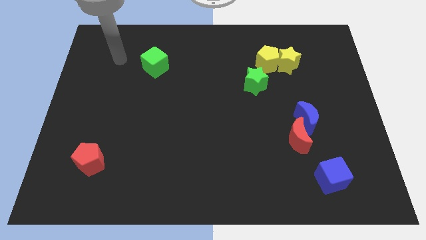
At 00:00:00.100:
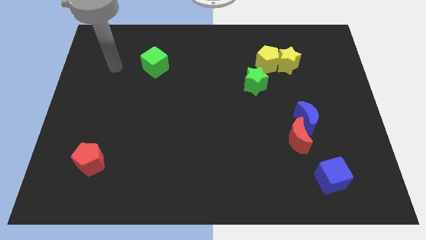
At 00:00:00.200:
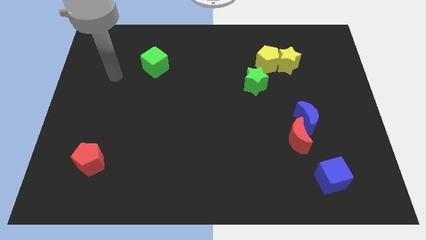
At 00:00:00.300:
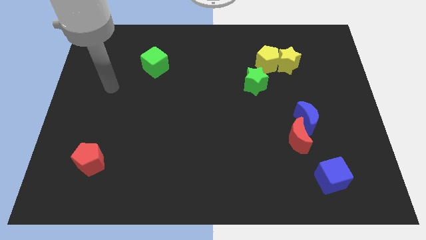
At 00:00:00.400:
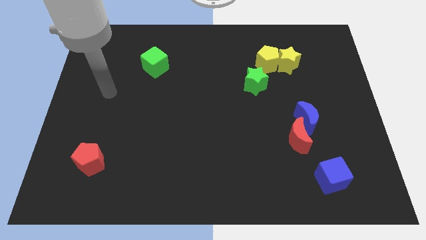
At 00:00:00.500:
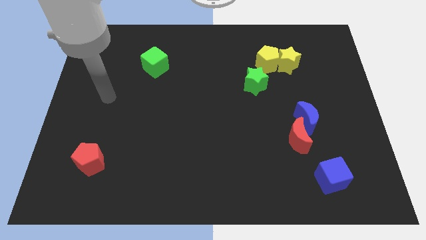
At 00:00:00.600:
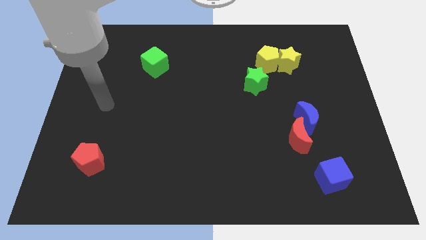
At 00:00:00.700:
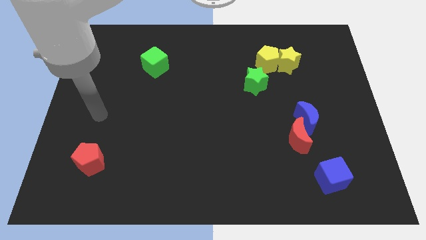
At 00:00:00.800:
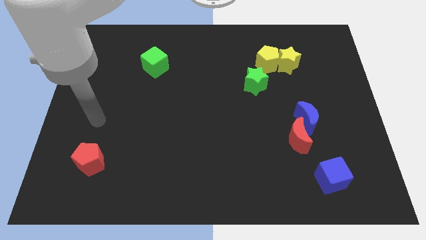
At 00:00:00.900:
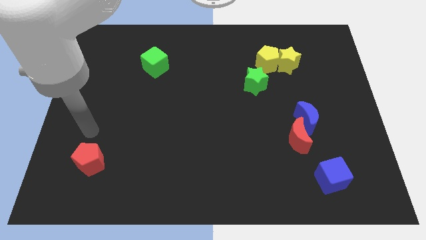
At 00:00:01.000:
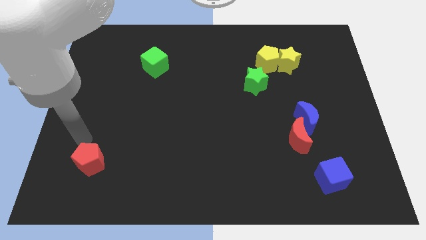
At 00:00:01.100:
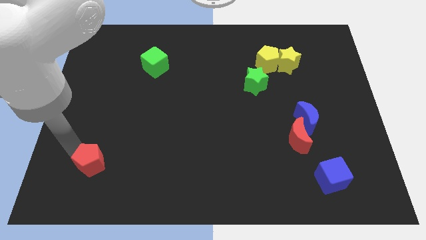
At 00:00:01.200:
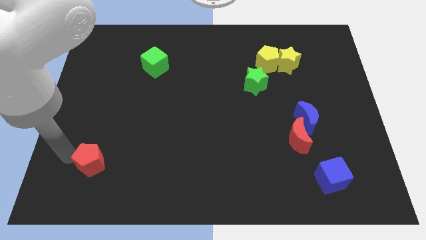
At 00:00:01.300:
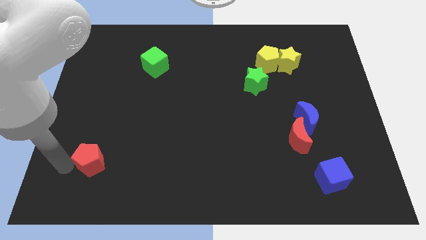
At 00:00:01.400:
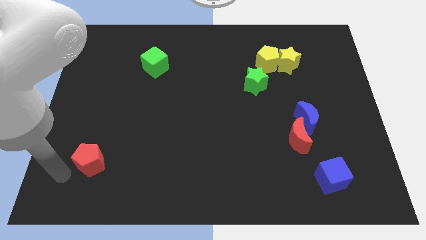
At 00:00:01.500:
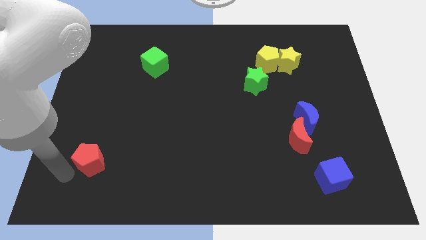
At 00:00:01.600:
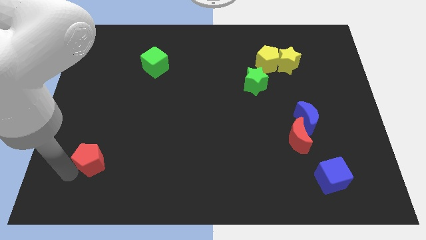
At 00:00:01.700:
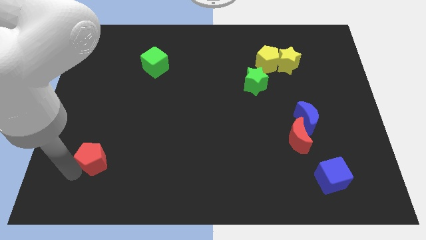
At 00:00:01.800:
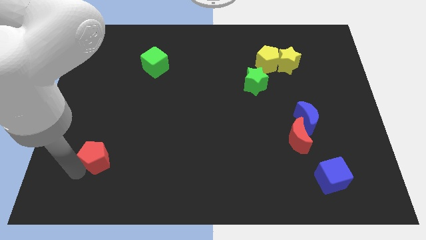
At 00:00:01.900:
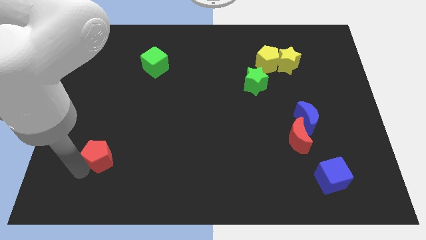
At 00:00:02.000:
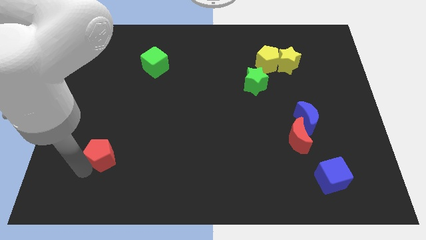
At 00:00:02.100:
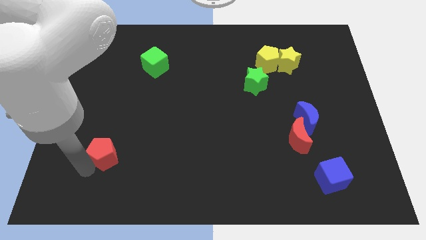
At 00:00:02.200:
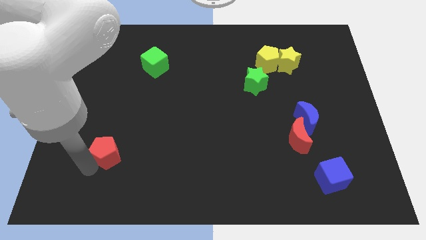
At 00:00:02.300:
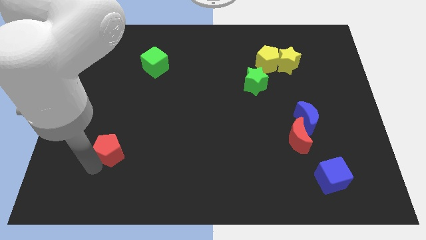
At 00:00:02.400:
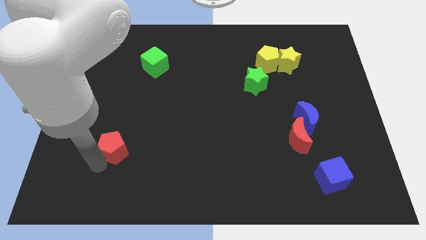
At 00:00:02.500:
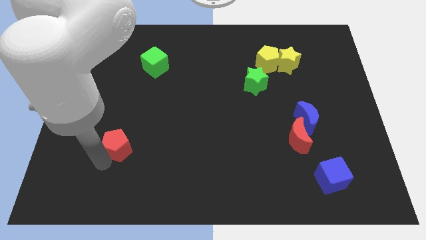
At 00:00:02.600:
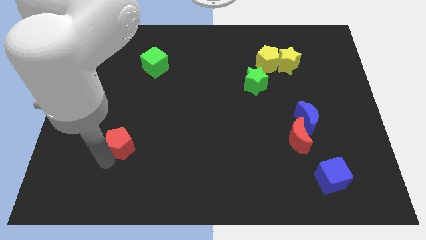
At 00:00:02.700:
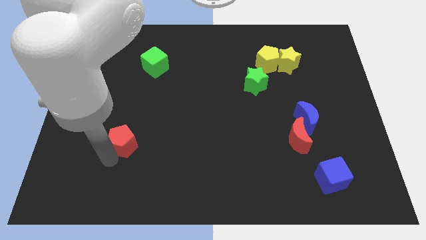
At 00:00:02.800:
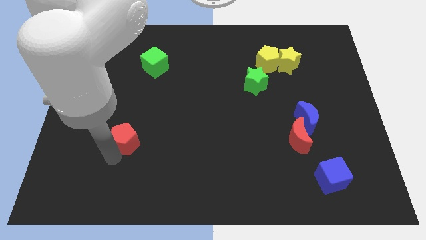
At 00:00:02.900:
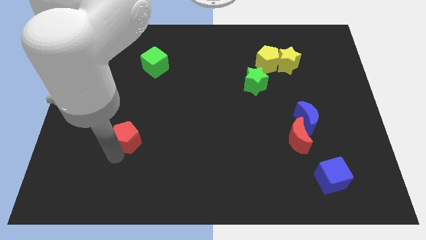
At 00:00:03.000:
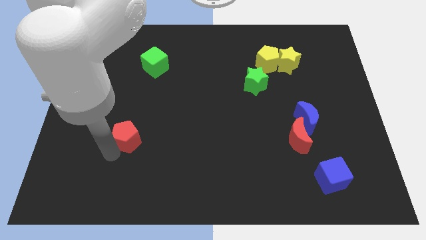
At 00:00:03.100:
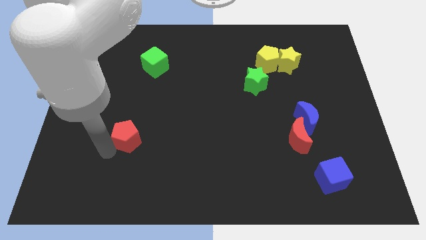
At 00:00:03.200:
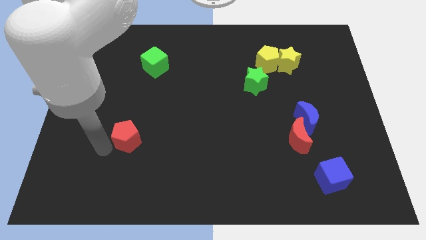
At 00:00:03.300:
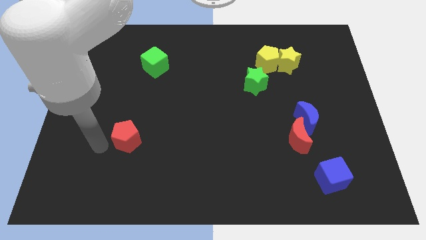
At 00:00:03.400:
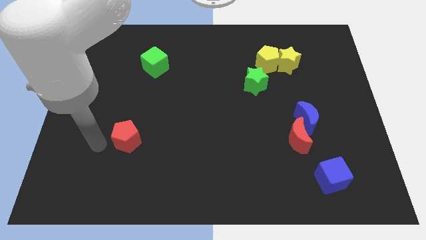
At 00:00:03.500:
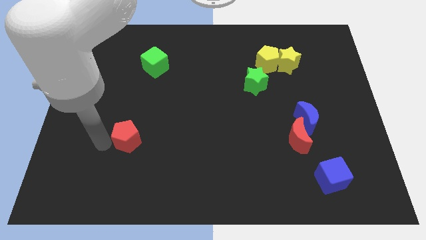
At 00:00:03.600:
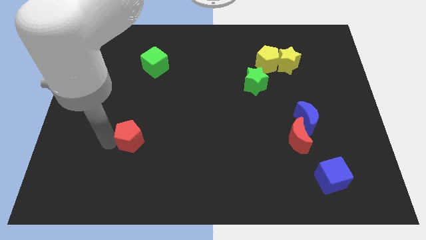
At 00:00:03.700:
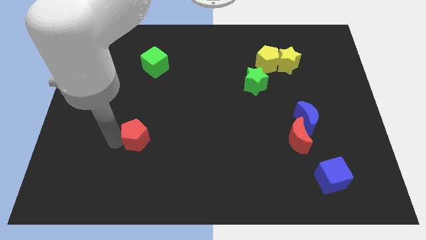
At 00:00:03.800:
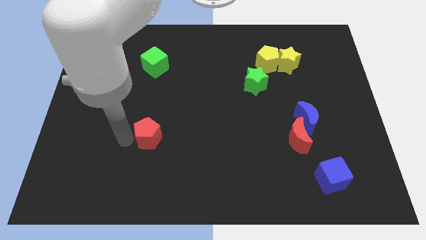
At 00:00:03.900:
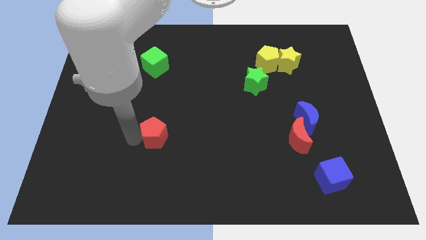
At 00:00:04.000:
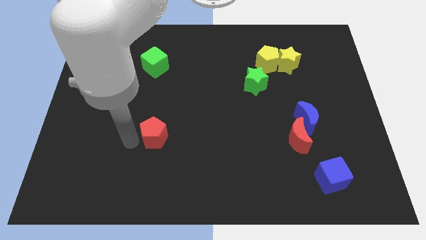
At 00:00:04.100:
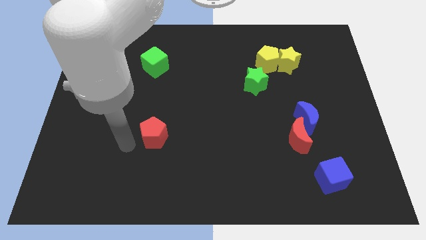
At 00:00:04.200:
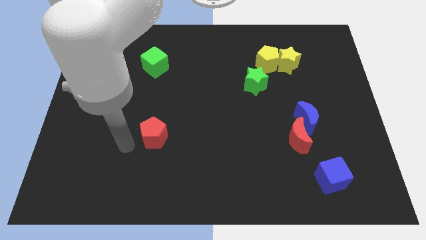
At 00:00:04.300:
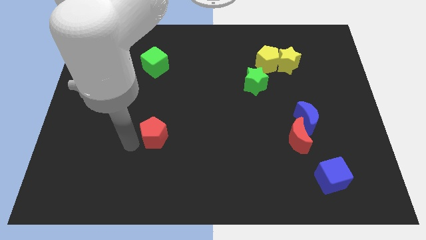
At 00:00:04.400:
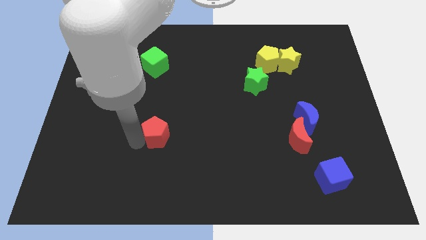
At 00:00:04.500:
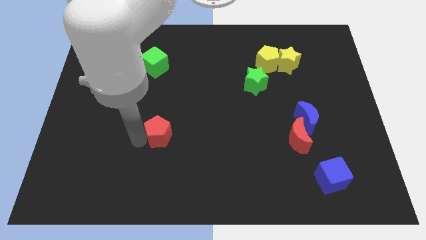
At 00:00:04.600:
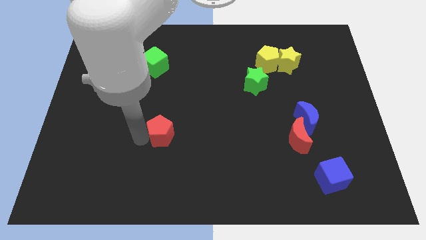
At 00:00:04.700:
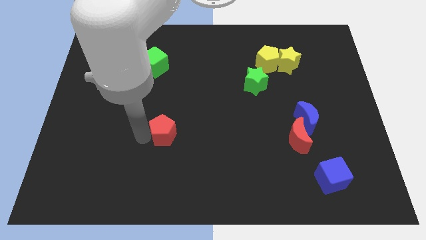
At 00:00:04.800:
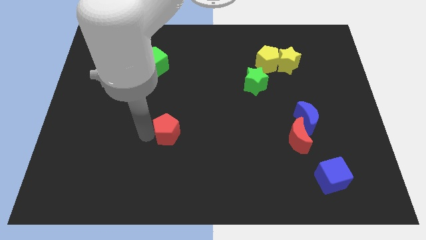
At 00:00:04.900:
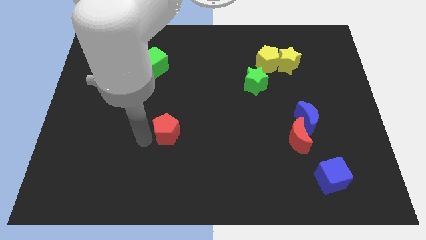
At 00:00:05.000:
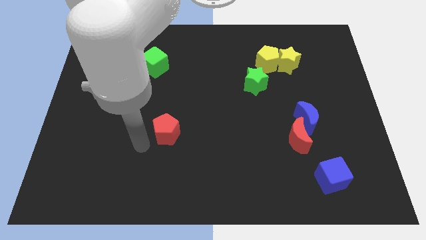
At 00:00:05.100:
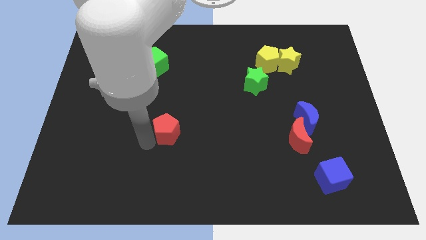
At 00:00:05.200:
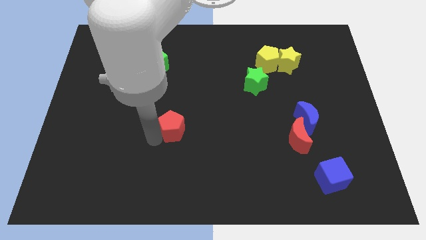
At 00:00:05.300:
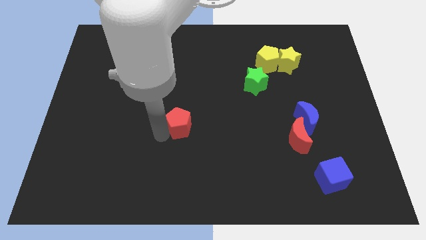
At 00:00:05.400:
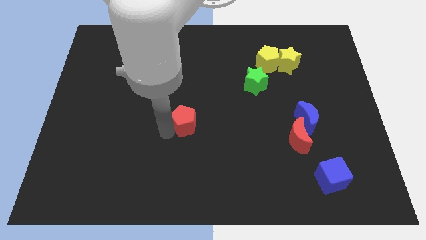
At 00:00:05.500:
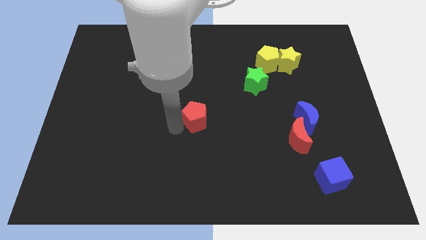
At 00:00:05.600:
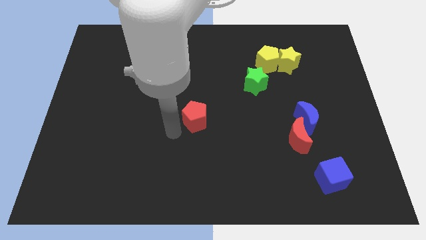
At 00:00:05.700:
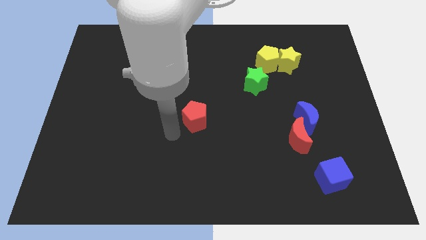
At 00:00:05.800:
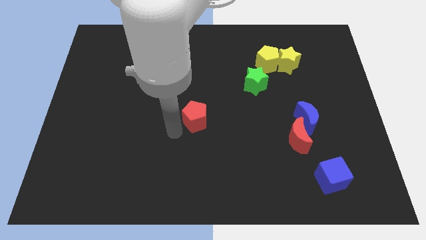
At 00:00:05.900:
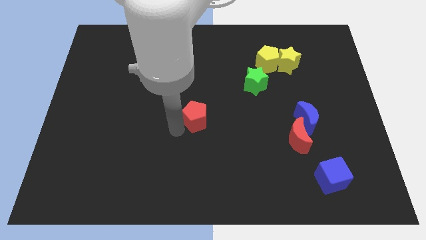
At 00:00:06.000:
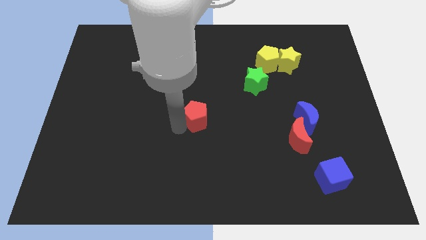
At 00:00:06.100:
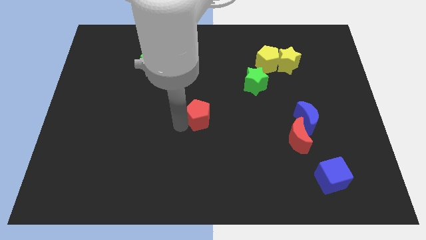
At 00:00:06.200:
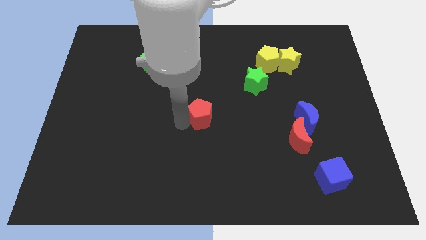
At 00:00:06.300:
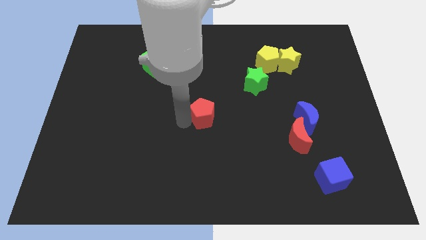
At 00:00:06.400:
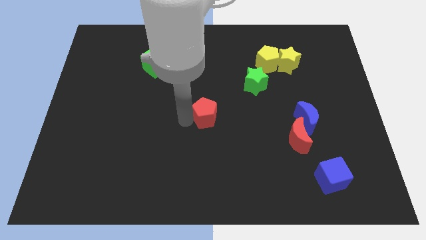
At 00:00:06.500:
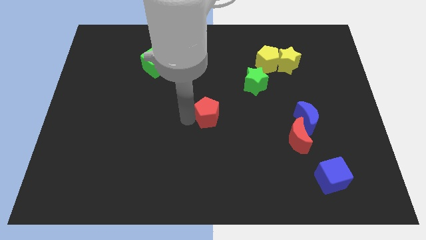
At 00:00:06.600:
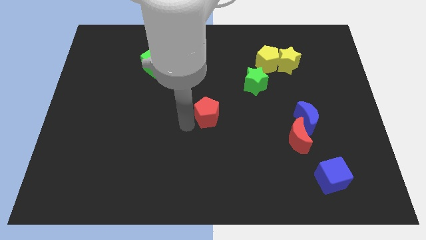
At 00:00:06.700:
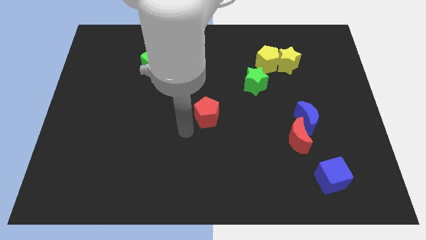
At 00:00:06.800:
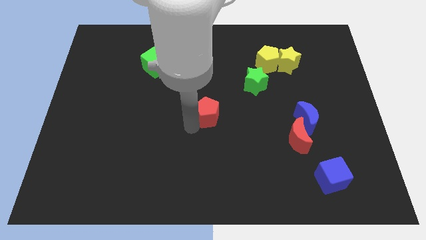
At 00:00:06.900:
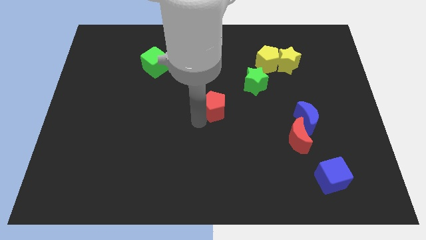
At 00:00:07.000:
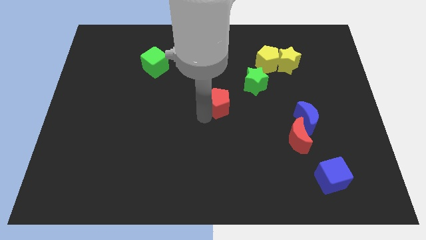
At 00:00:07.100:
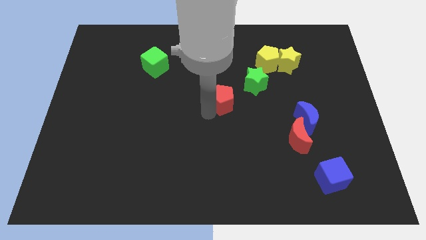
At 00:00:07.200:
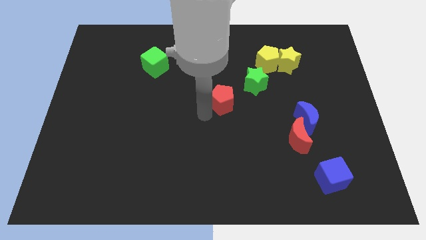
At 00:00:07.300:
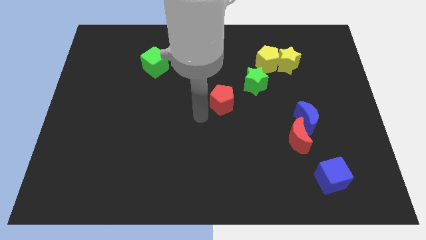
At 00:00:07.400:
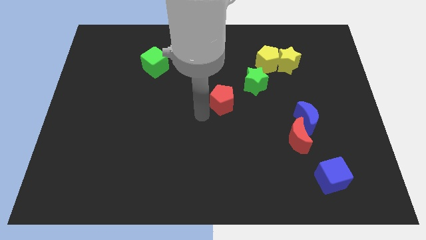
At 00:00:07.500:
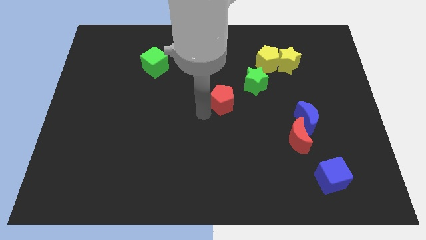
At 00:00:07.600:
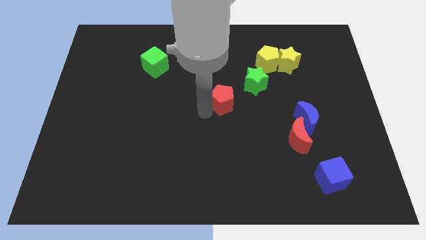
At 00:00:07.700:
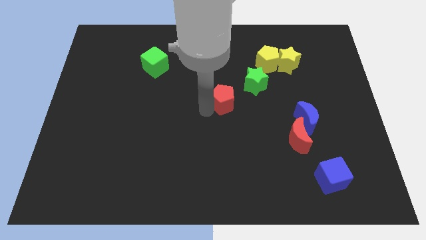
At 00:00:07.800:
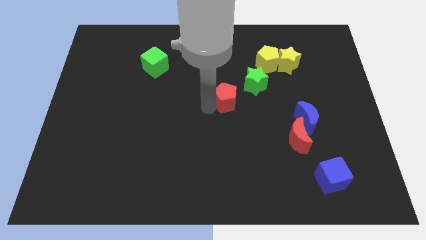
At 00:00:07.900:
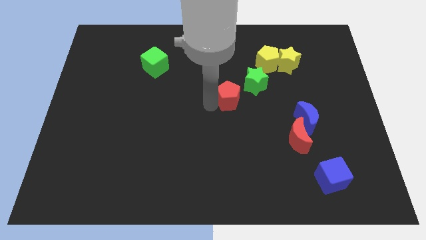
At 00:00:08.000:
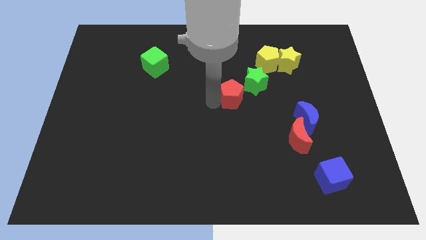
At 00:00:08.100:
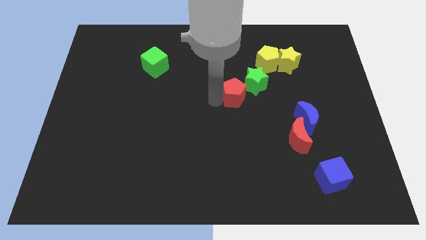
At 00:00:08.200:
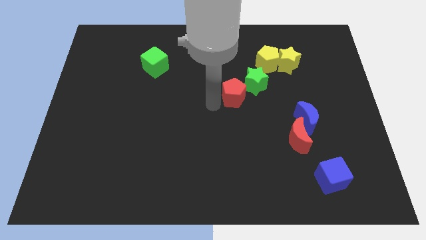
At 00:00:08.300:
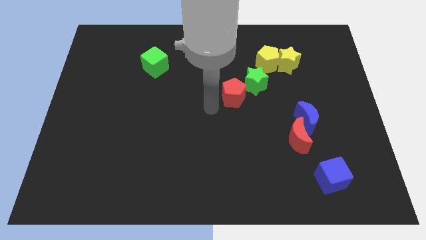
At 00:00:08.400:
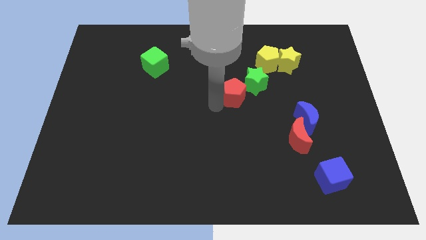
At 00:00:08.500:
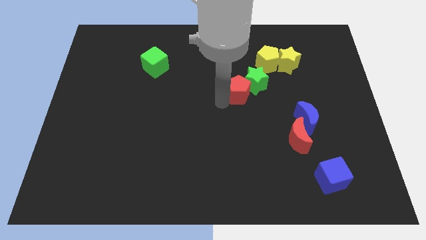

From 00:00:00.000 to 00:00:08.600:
put the red pentagon towards the green star
